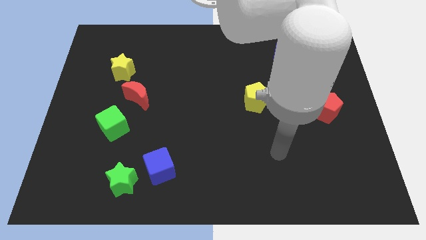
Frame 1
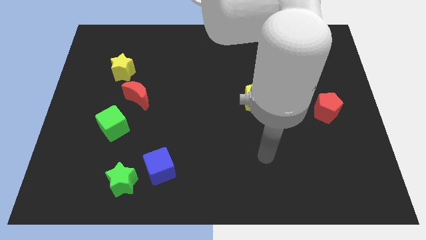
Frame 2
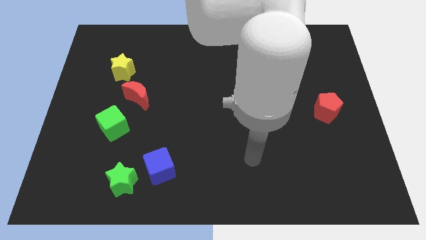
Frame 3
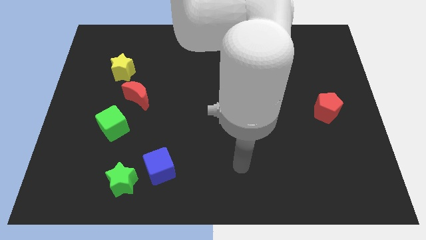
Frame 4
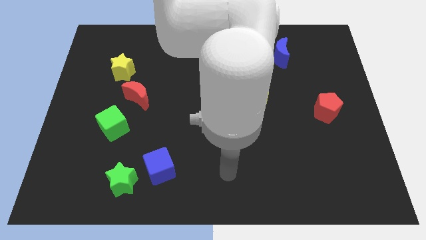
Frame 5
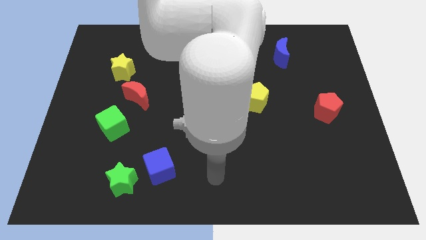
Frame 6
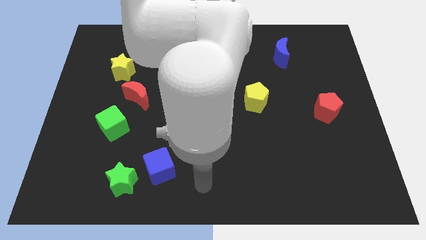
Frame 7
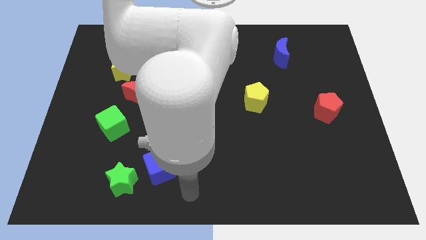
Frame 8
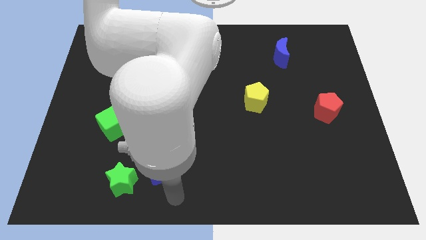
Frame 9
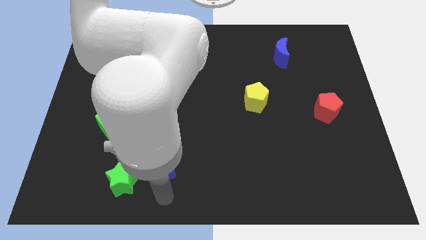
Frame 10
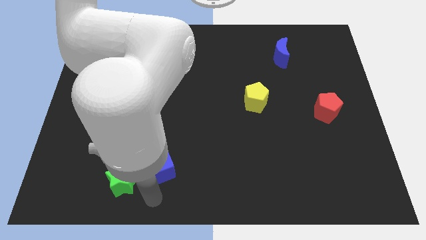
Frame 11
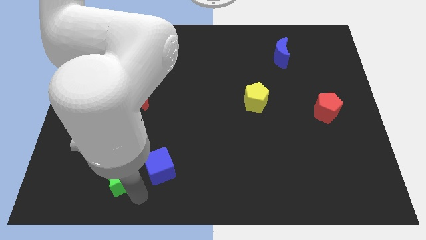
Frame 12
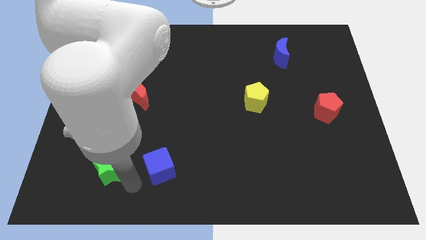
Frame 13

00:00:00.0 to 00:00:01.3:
separate the blue cube from the green star

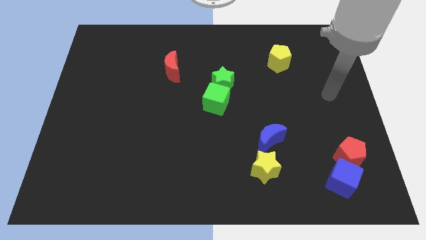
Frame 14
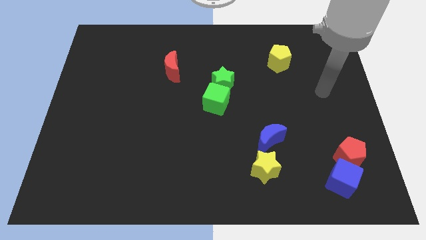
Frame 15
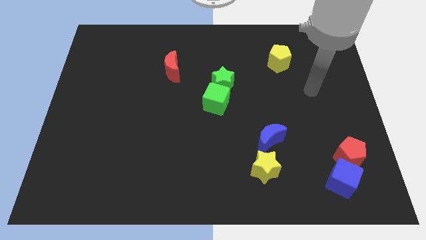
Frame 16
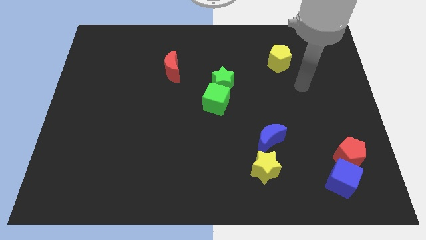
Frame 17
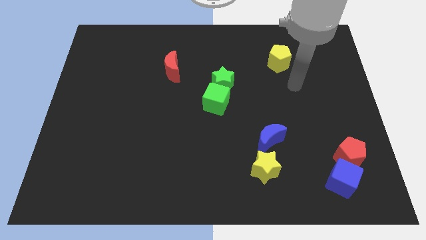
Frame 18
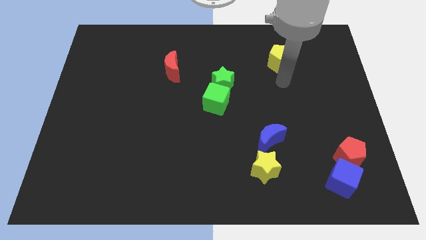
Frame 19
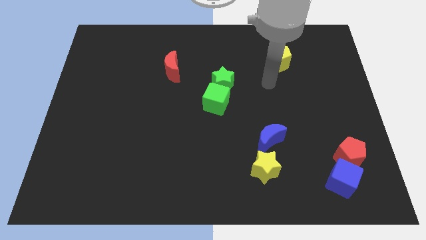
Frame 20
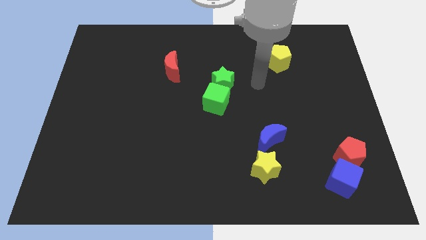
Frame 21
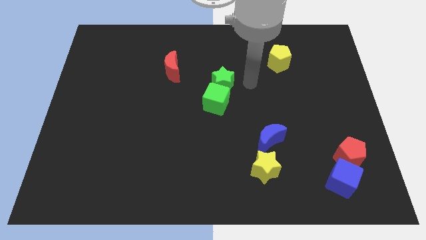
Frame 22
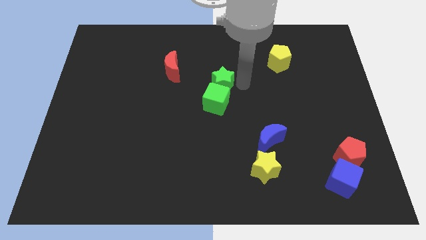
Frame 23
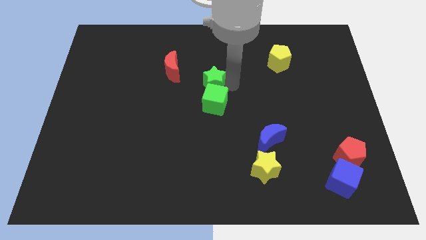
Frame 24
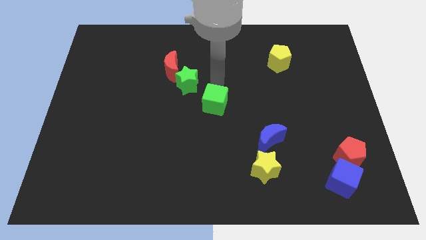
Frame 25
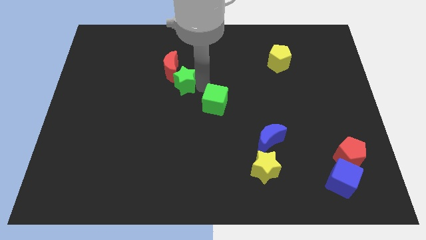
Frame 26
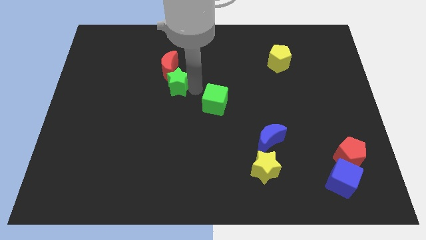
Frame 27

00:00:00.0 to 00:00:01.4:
move the green cube away from the green star

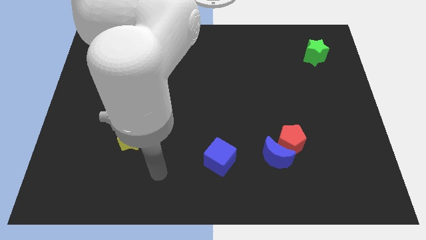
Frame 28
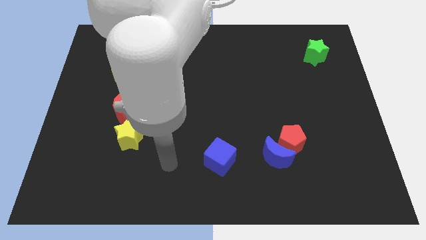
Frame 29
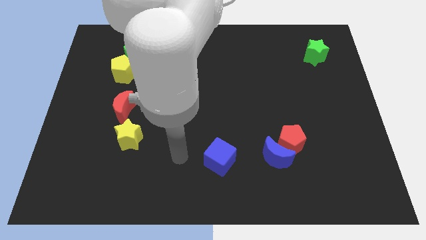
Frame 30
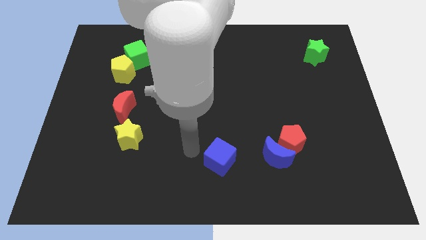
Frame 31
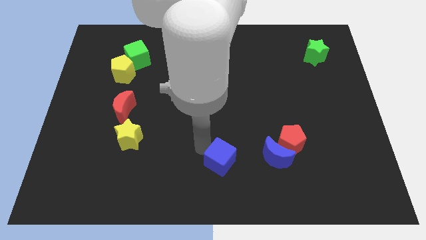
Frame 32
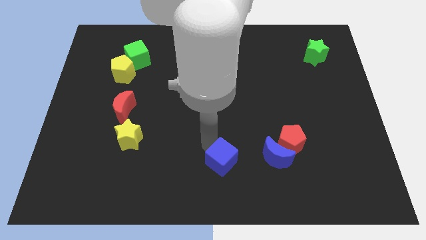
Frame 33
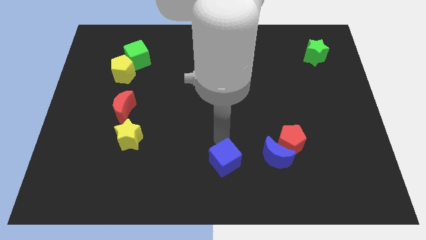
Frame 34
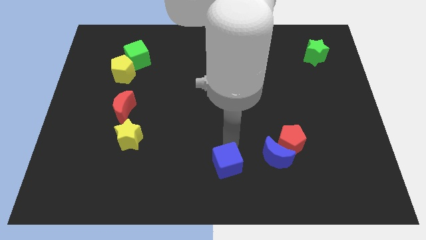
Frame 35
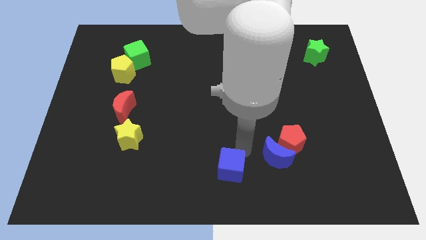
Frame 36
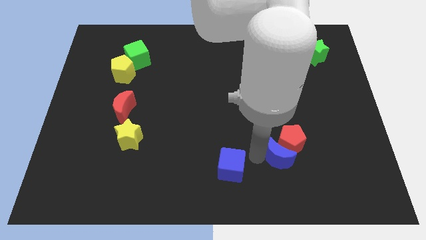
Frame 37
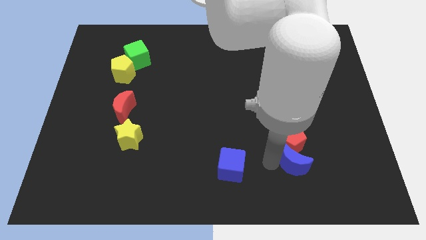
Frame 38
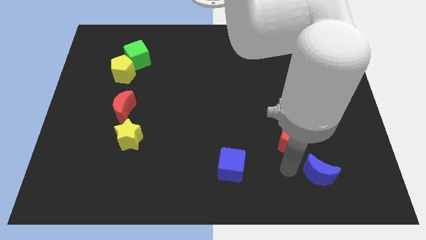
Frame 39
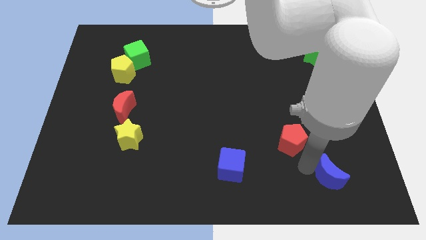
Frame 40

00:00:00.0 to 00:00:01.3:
pull the red pentagon apart from the blue moon

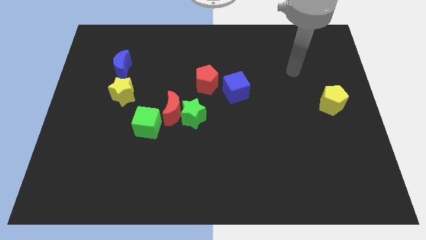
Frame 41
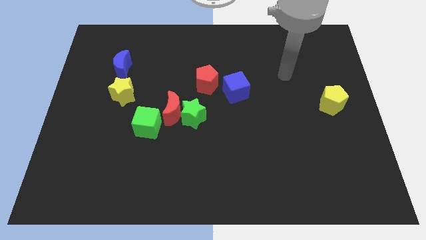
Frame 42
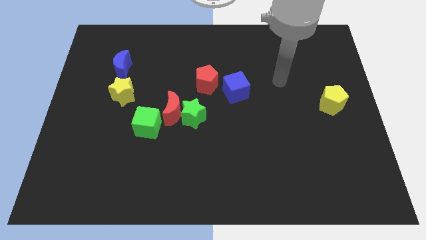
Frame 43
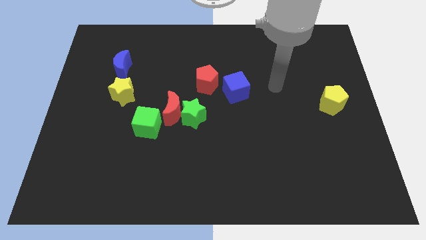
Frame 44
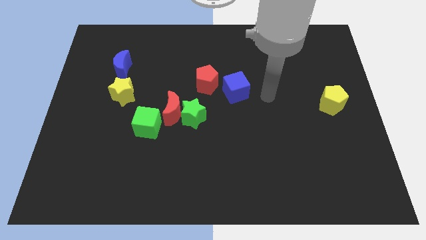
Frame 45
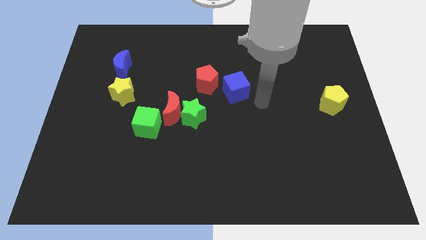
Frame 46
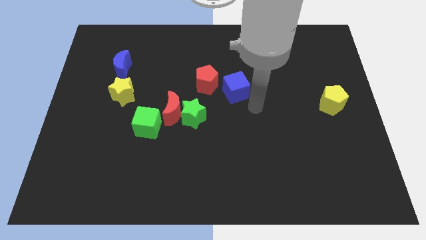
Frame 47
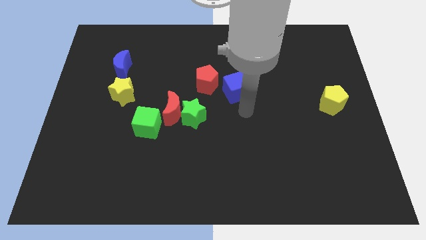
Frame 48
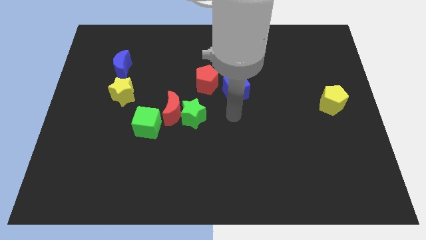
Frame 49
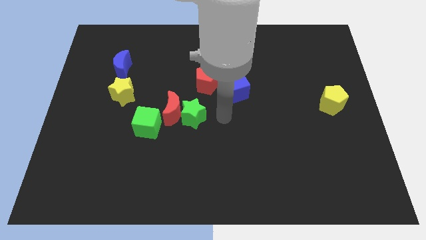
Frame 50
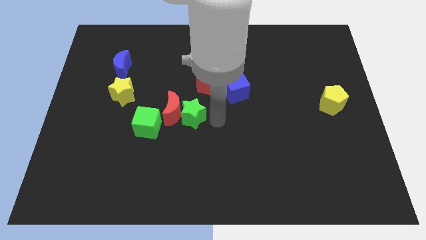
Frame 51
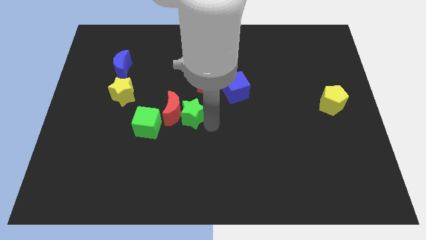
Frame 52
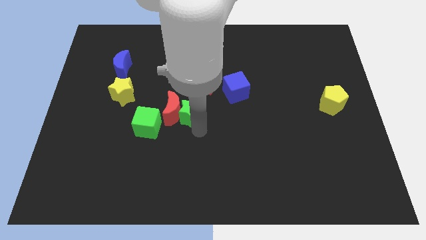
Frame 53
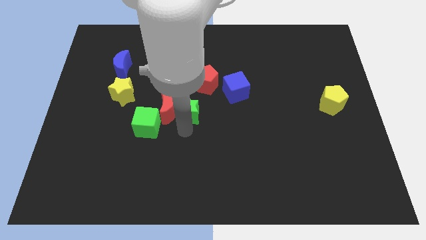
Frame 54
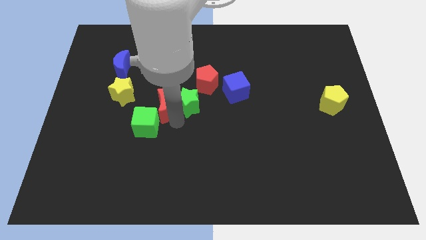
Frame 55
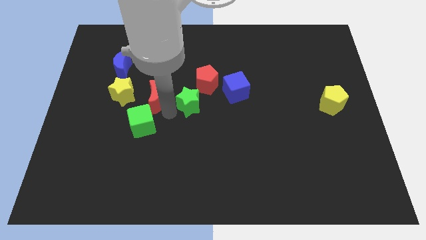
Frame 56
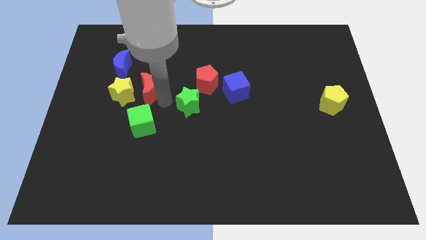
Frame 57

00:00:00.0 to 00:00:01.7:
pull the green star apart from the red moon

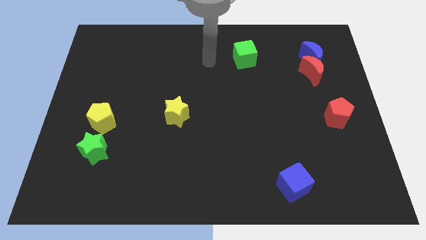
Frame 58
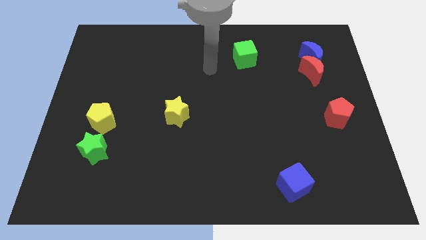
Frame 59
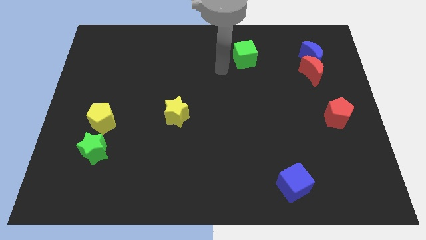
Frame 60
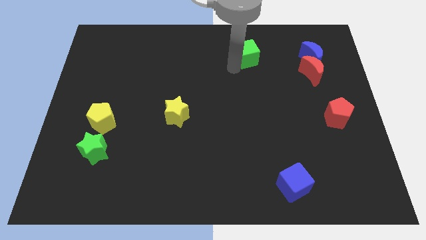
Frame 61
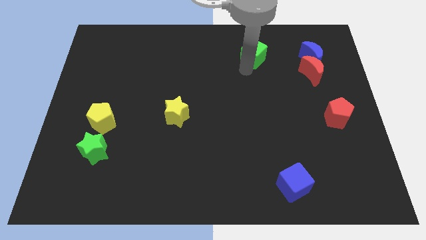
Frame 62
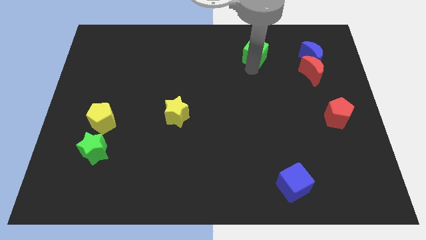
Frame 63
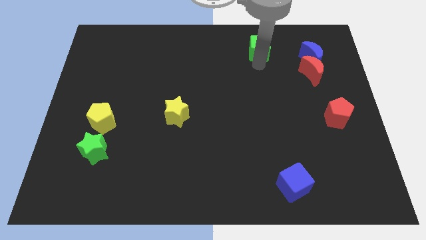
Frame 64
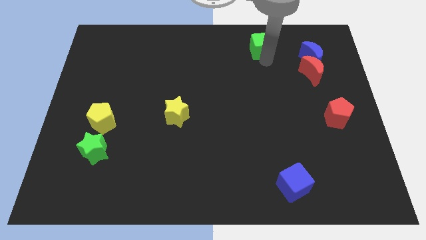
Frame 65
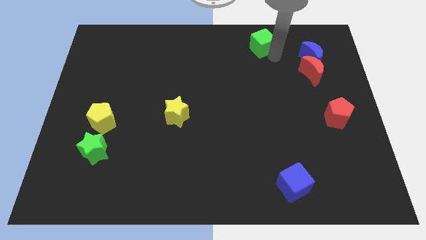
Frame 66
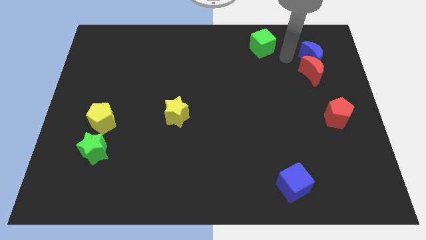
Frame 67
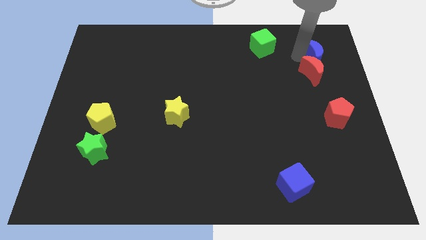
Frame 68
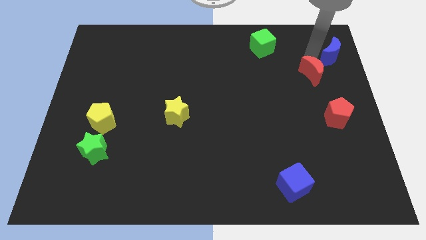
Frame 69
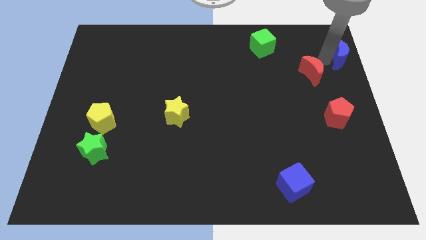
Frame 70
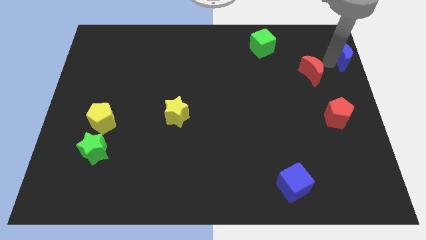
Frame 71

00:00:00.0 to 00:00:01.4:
separate the red moon from the blue moon

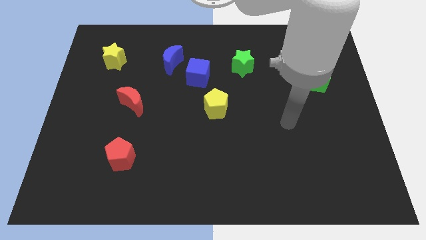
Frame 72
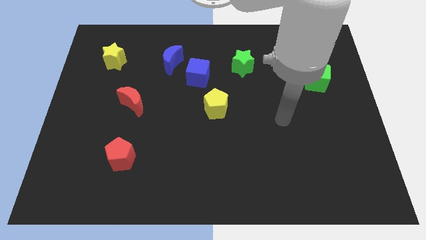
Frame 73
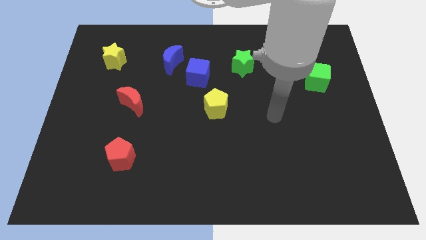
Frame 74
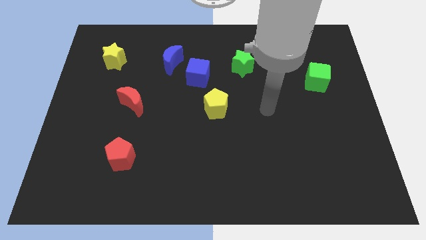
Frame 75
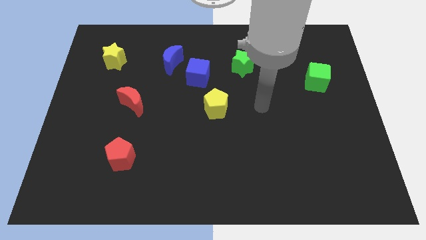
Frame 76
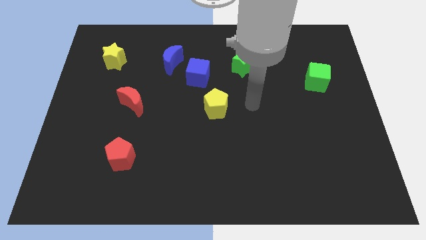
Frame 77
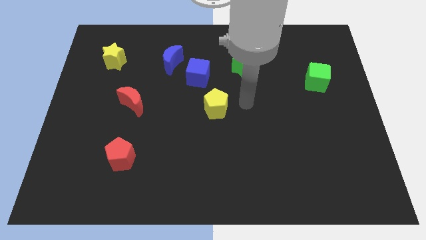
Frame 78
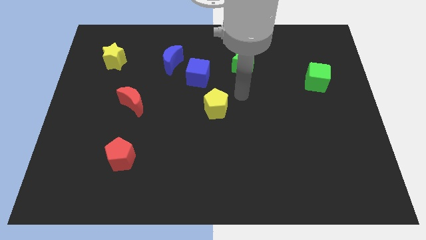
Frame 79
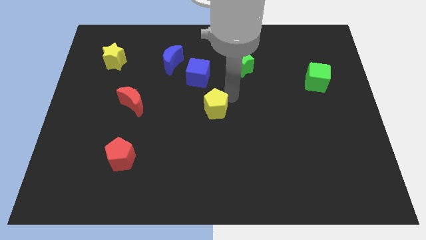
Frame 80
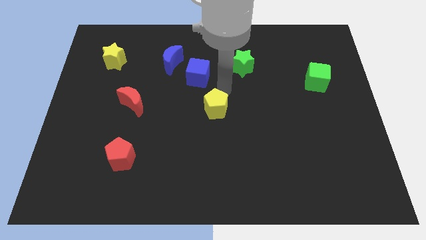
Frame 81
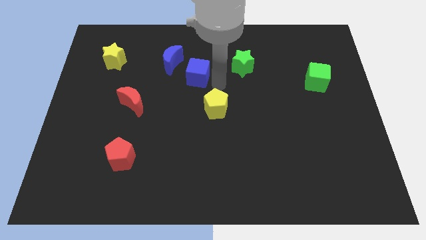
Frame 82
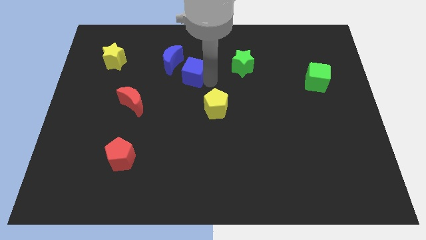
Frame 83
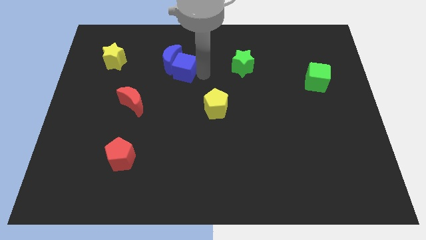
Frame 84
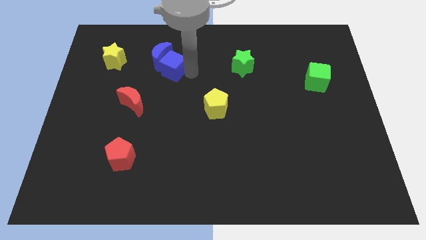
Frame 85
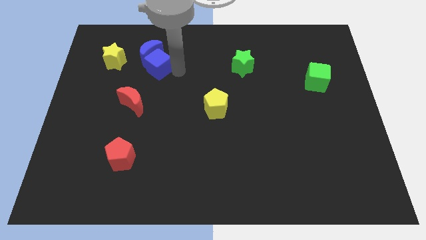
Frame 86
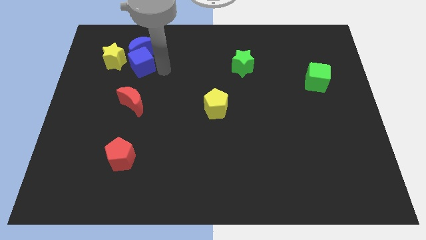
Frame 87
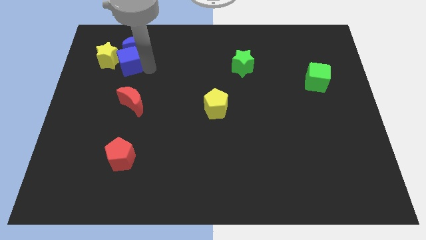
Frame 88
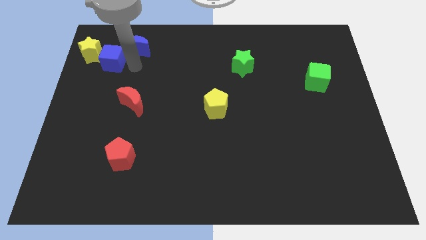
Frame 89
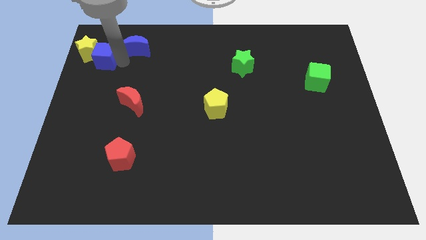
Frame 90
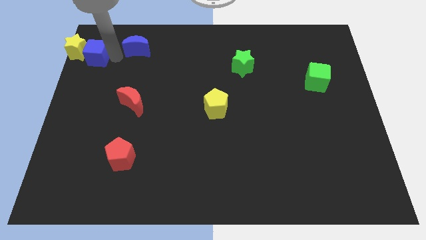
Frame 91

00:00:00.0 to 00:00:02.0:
separate the blue moon from the blue cube
